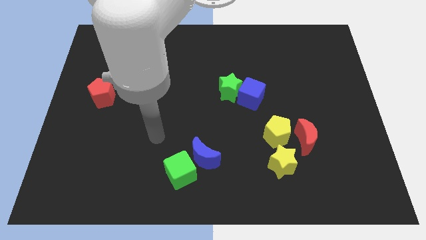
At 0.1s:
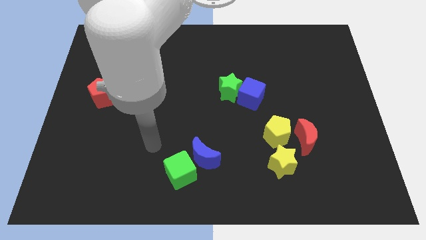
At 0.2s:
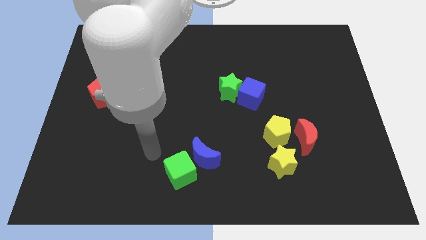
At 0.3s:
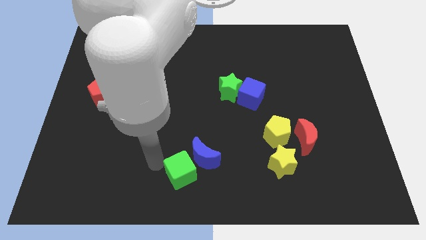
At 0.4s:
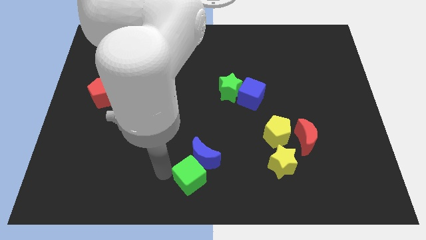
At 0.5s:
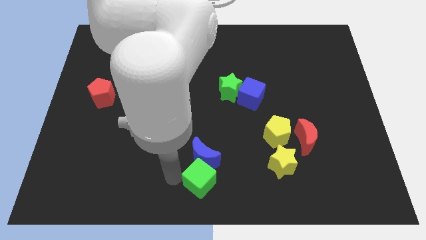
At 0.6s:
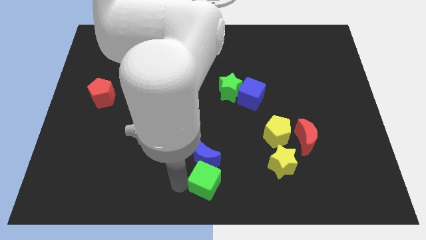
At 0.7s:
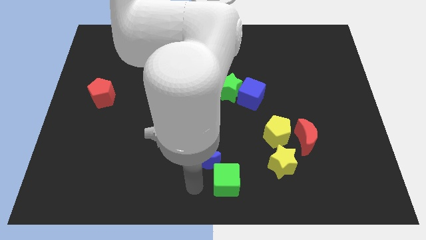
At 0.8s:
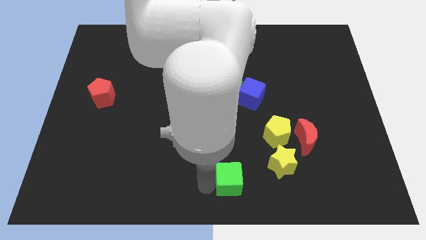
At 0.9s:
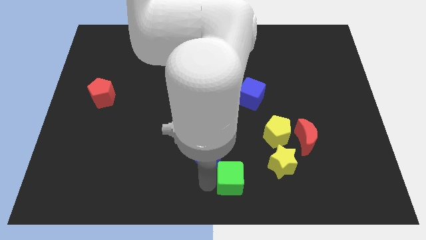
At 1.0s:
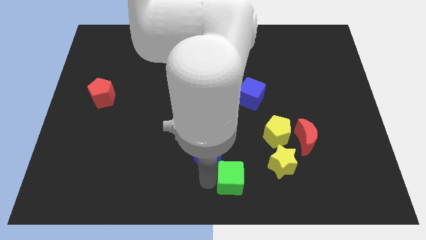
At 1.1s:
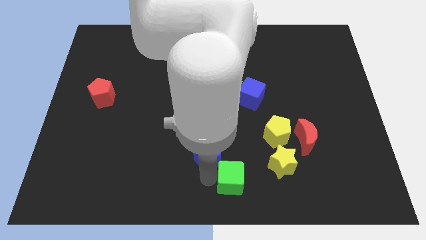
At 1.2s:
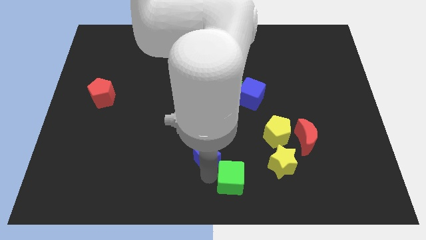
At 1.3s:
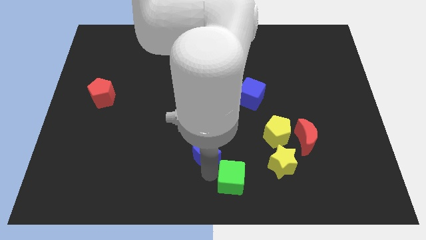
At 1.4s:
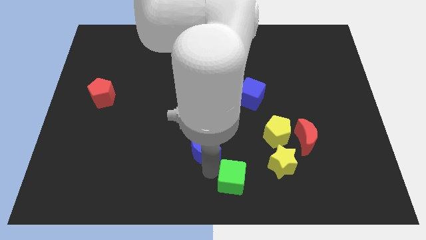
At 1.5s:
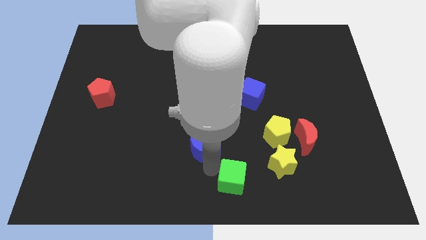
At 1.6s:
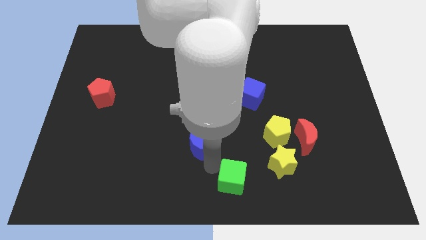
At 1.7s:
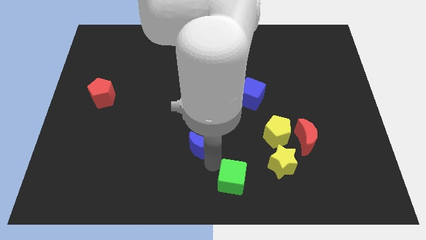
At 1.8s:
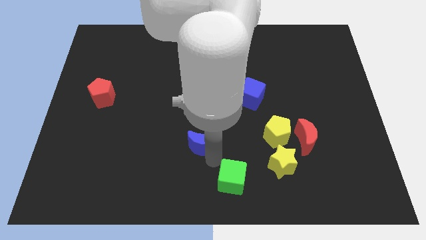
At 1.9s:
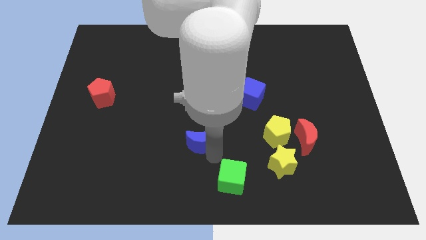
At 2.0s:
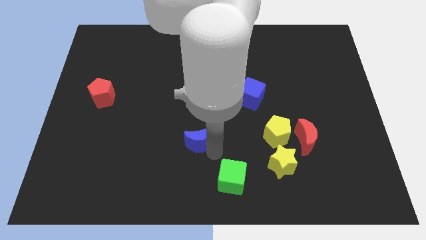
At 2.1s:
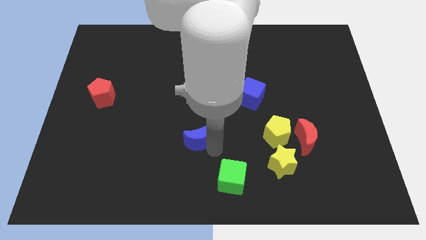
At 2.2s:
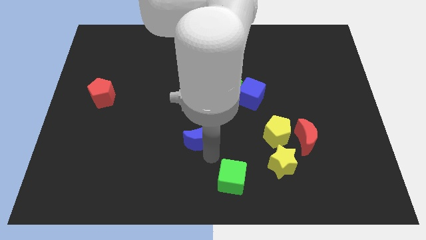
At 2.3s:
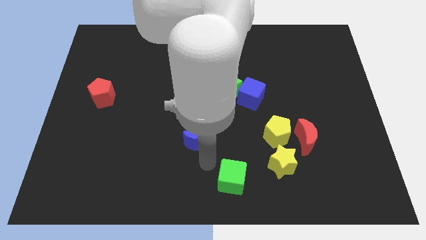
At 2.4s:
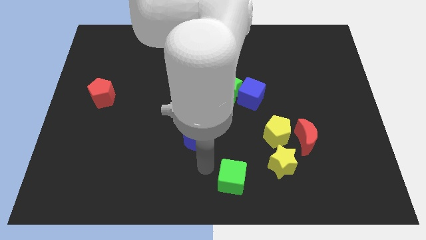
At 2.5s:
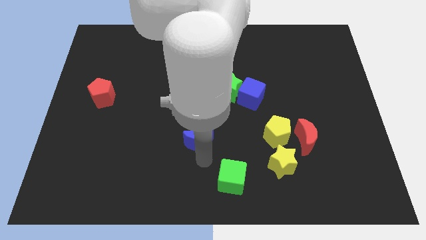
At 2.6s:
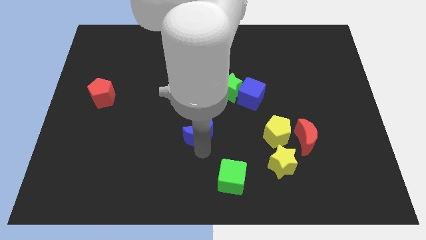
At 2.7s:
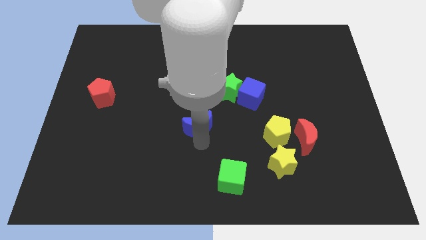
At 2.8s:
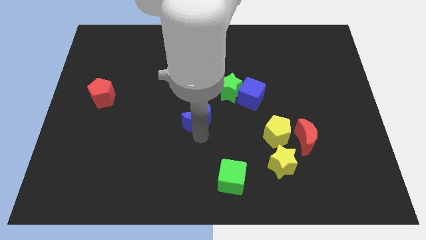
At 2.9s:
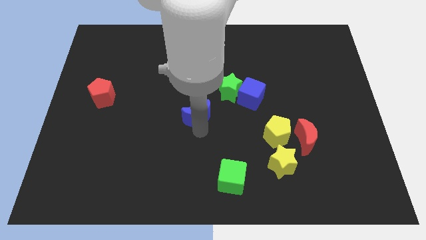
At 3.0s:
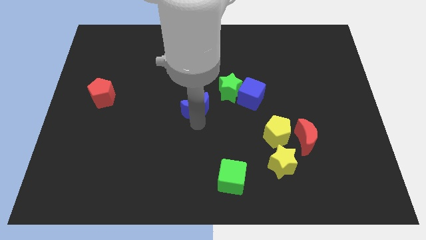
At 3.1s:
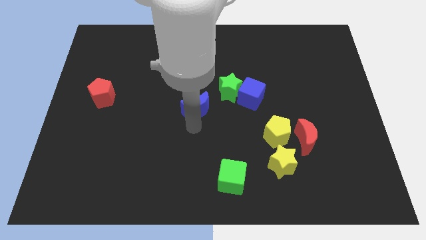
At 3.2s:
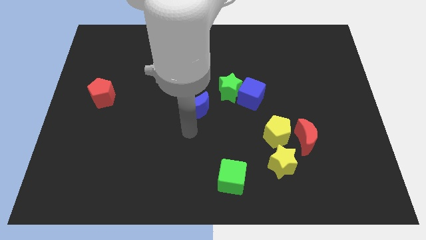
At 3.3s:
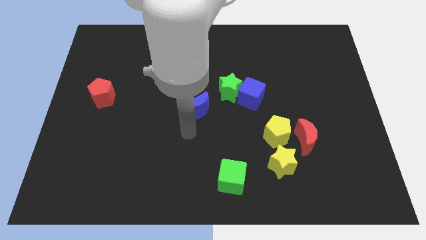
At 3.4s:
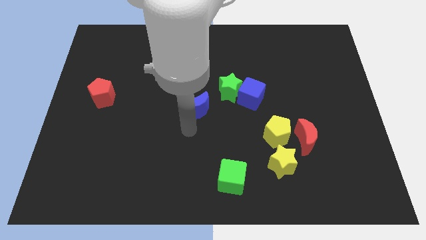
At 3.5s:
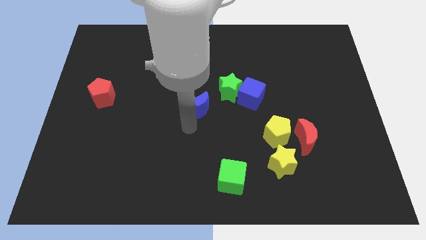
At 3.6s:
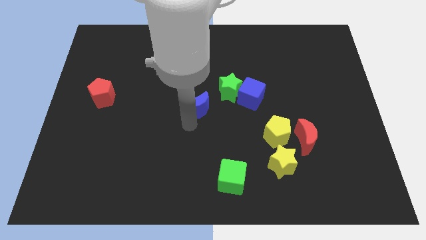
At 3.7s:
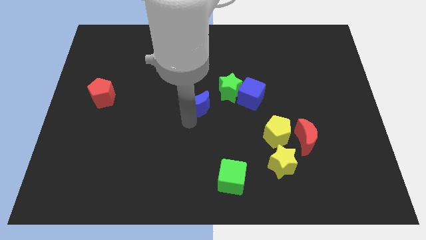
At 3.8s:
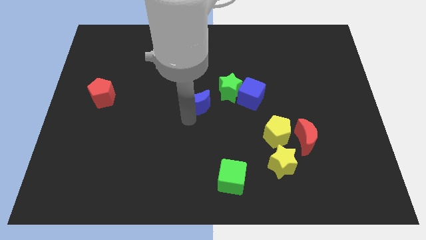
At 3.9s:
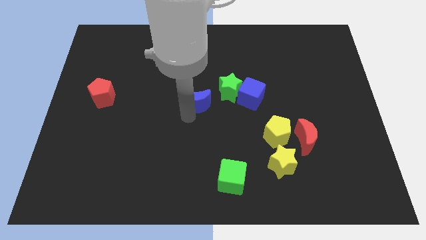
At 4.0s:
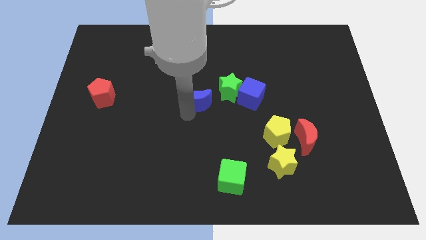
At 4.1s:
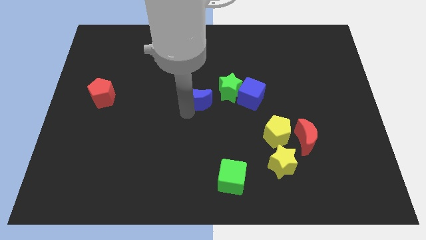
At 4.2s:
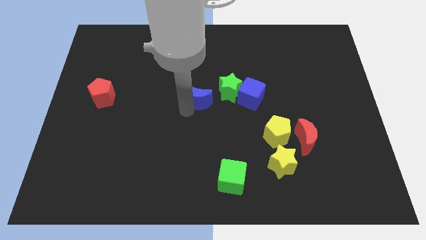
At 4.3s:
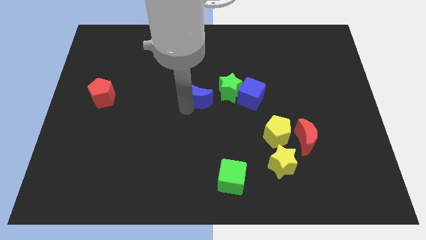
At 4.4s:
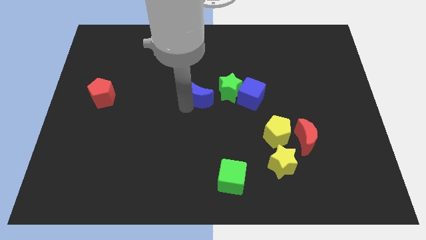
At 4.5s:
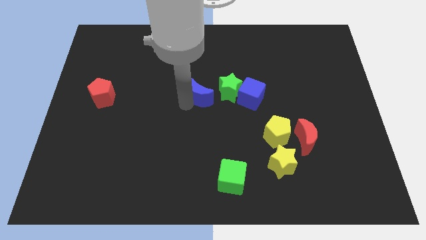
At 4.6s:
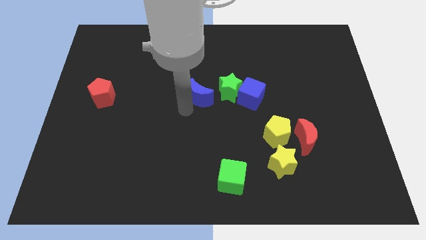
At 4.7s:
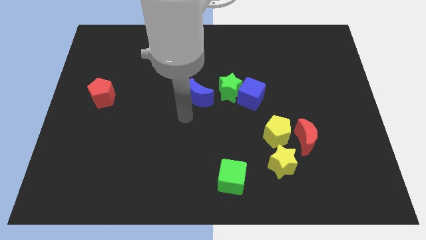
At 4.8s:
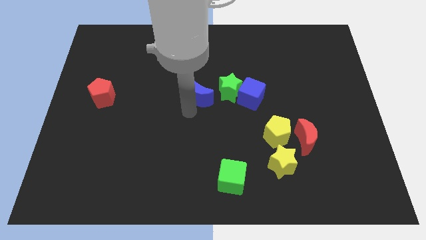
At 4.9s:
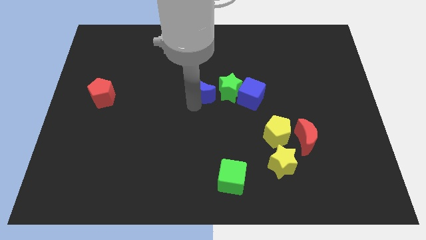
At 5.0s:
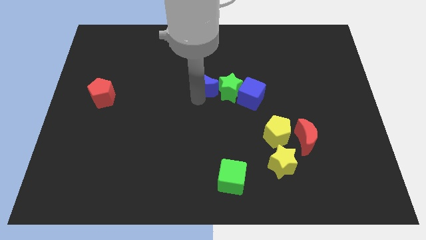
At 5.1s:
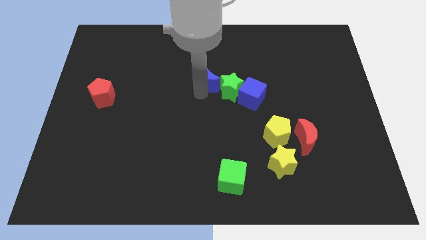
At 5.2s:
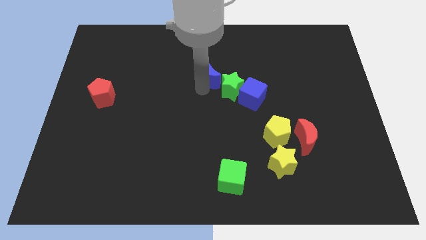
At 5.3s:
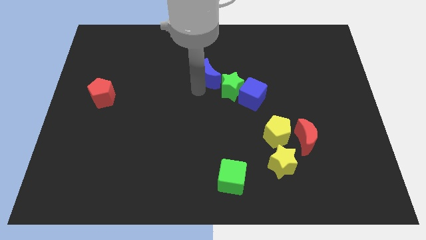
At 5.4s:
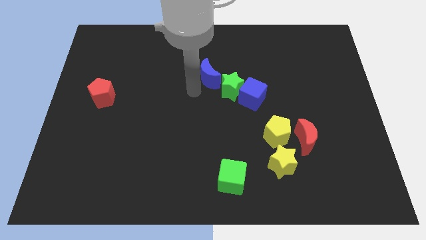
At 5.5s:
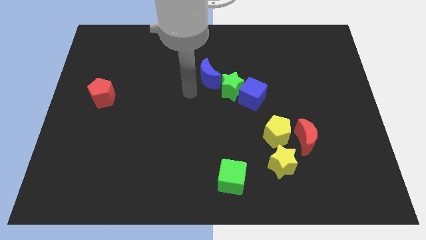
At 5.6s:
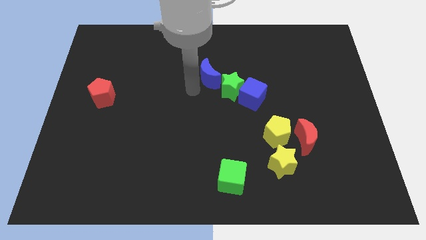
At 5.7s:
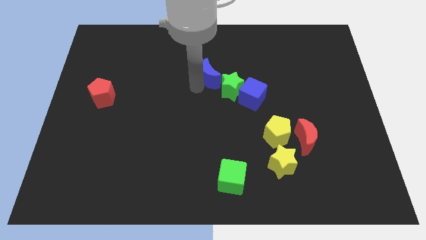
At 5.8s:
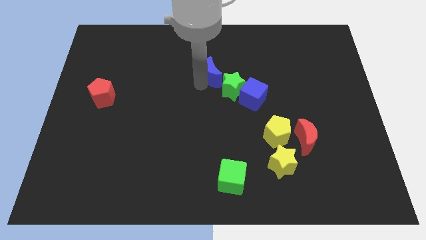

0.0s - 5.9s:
put the blue moon above the green star

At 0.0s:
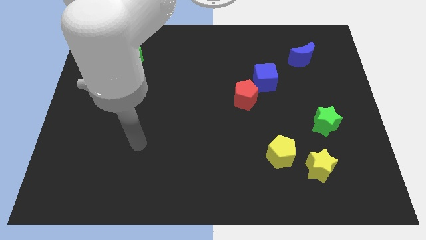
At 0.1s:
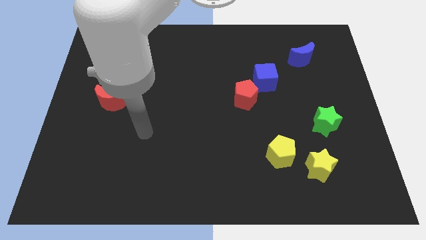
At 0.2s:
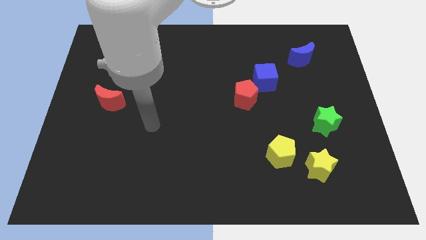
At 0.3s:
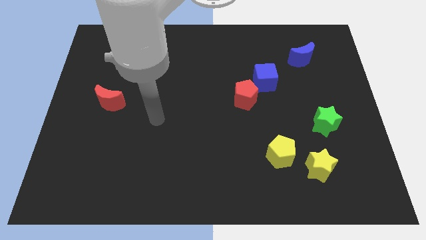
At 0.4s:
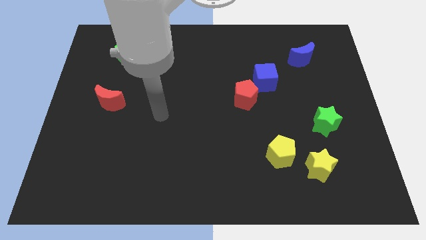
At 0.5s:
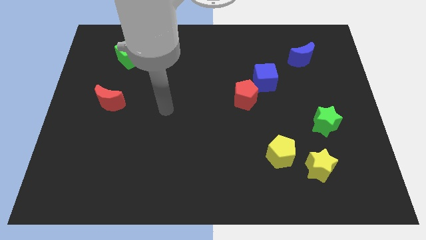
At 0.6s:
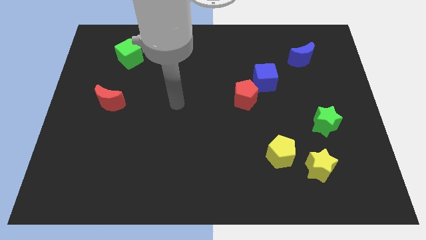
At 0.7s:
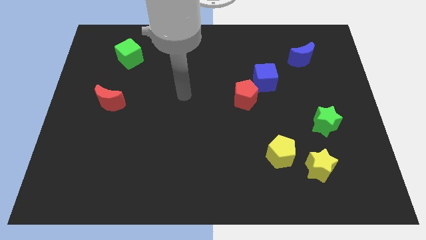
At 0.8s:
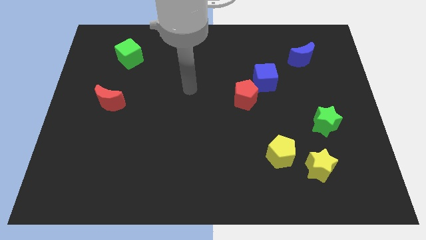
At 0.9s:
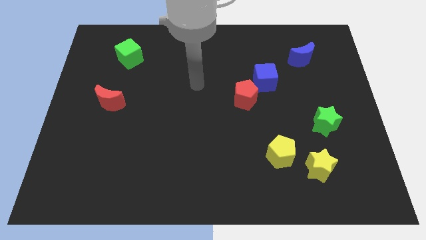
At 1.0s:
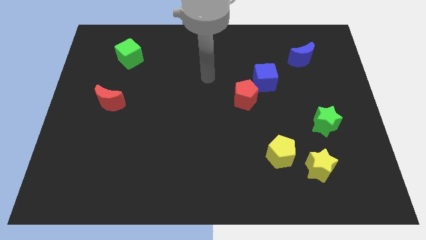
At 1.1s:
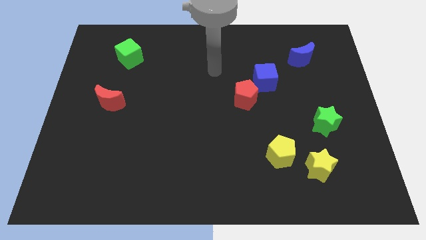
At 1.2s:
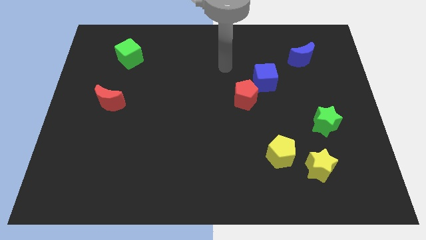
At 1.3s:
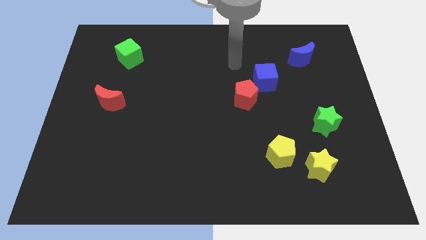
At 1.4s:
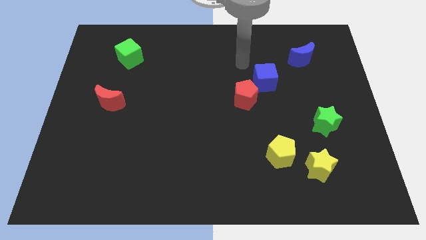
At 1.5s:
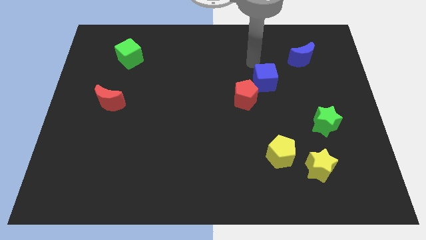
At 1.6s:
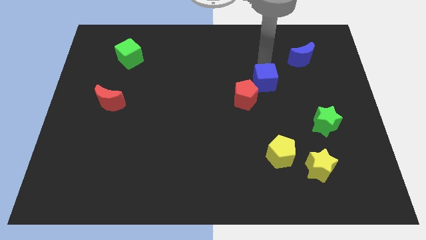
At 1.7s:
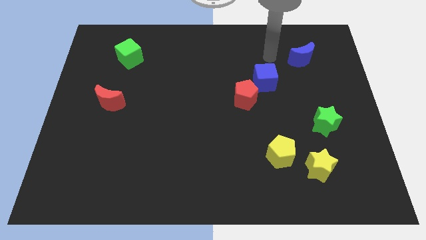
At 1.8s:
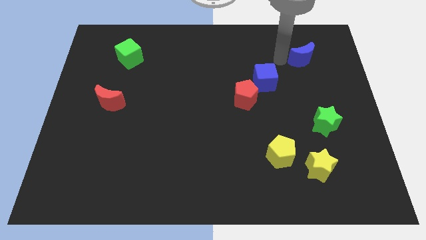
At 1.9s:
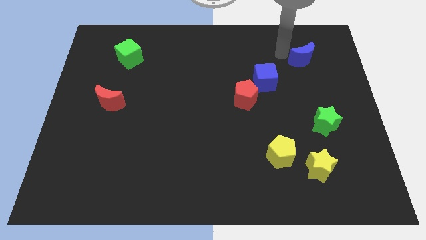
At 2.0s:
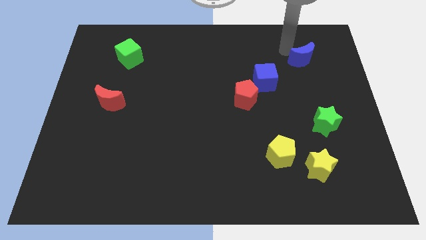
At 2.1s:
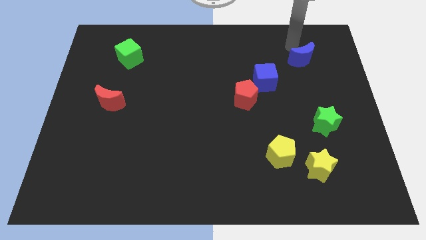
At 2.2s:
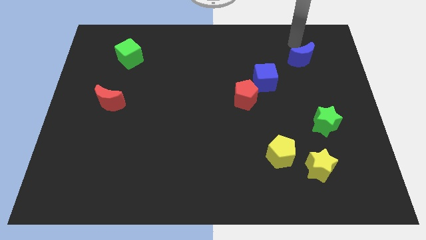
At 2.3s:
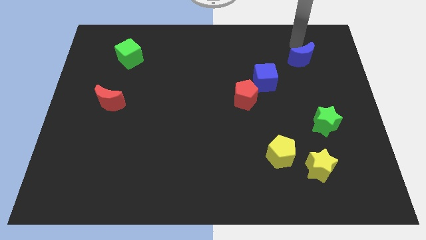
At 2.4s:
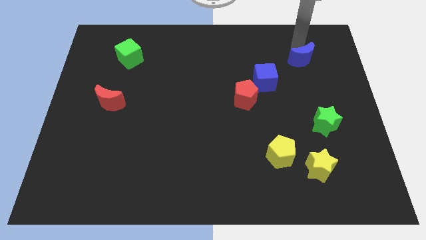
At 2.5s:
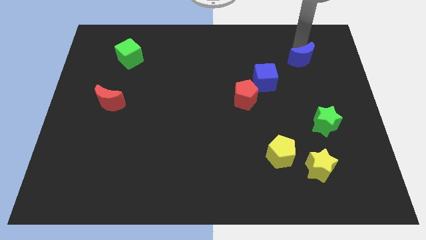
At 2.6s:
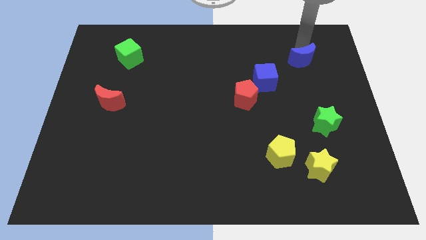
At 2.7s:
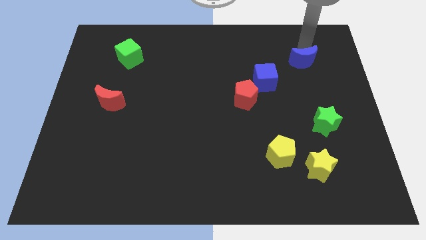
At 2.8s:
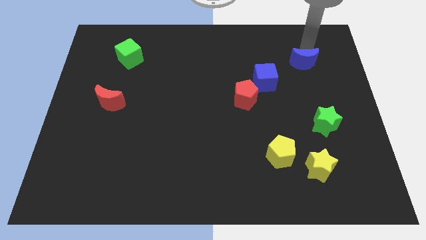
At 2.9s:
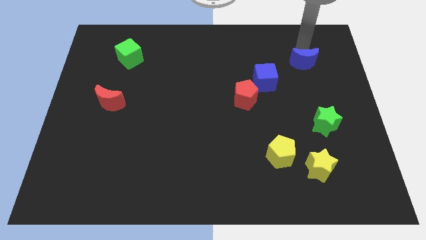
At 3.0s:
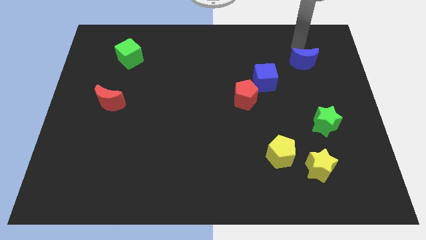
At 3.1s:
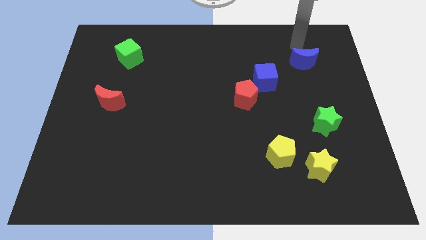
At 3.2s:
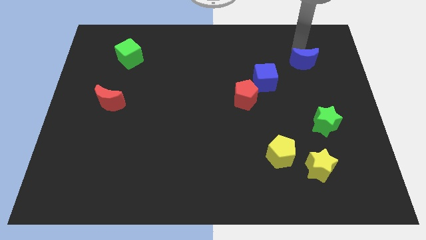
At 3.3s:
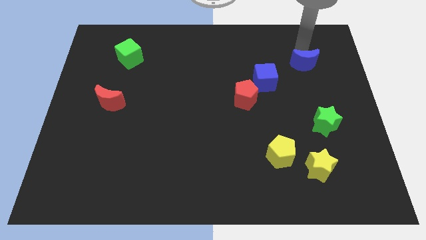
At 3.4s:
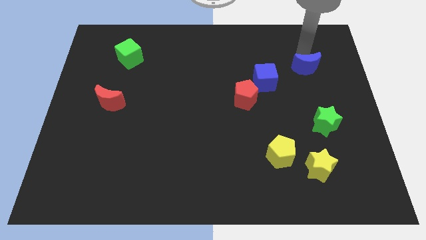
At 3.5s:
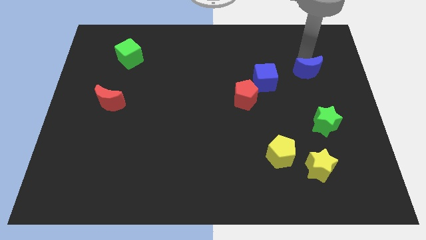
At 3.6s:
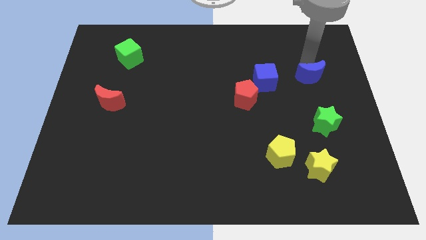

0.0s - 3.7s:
put the blue moon to the top side of the green star
